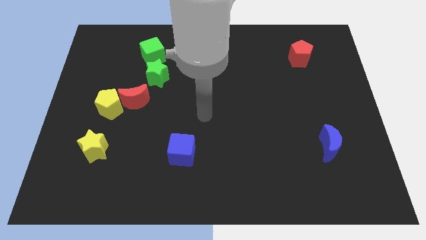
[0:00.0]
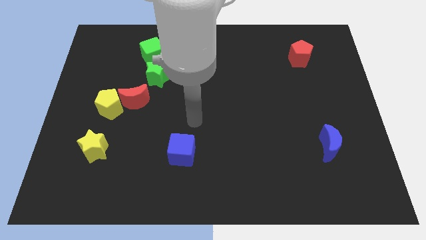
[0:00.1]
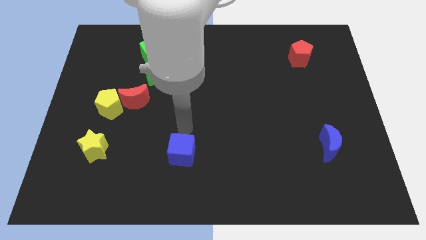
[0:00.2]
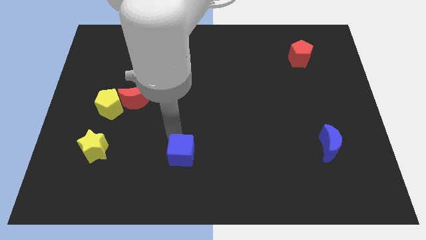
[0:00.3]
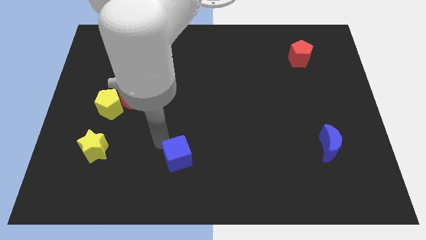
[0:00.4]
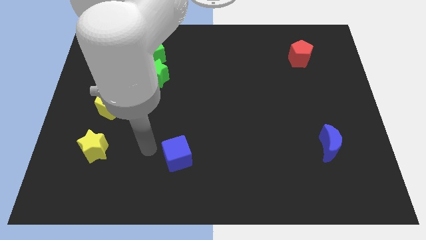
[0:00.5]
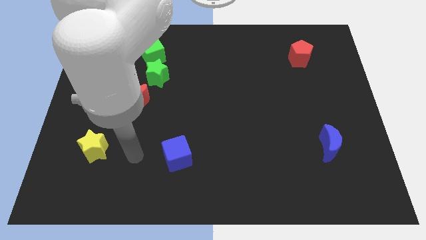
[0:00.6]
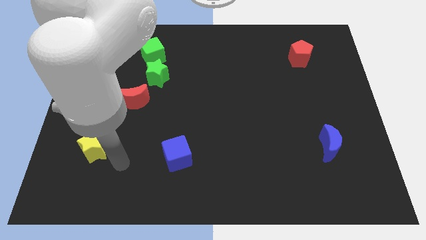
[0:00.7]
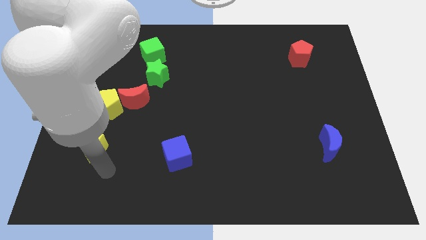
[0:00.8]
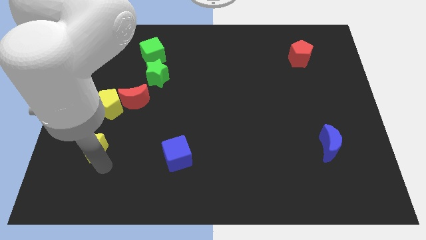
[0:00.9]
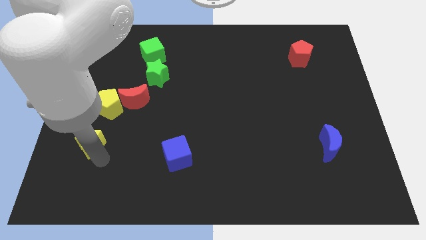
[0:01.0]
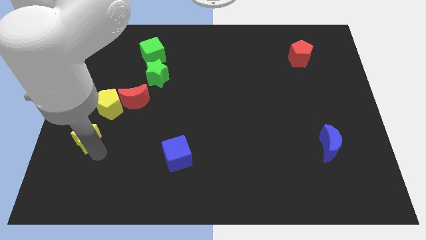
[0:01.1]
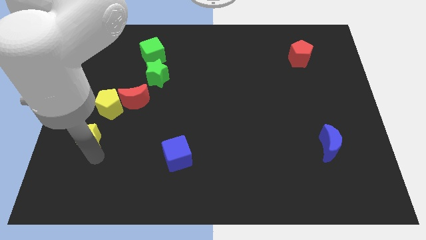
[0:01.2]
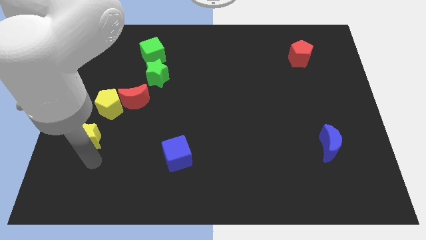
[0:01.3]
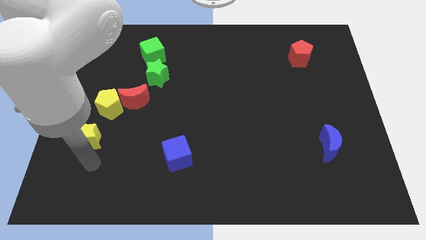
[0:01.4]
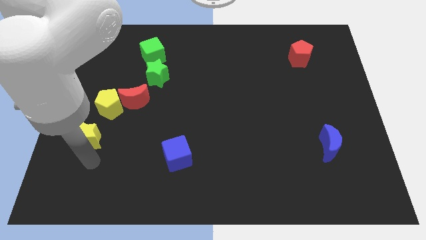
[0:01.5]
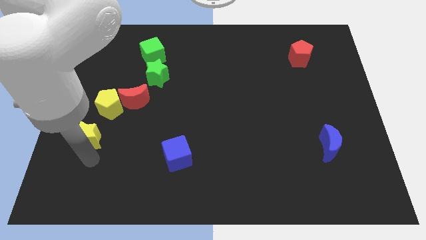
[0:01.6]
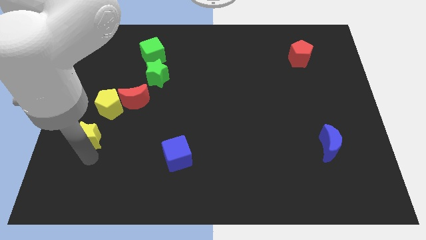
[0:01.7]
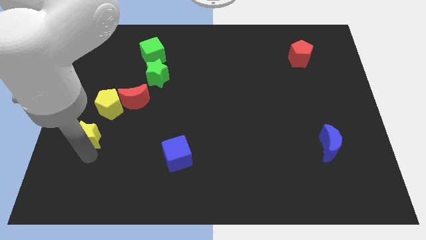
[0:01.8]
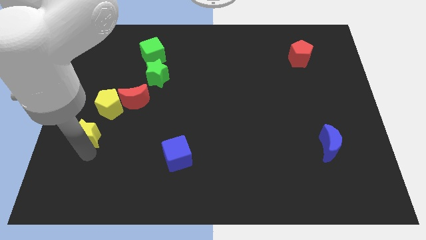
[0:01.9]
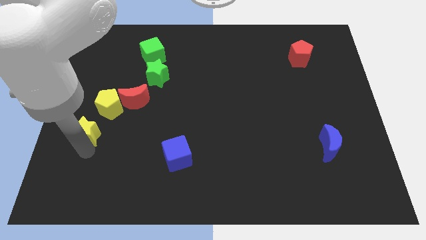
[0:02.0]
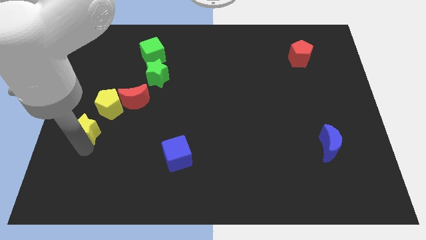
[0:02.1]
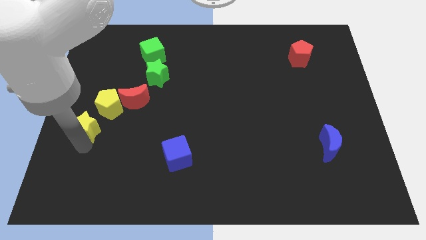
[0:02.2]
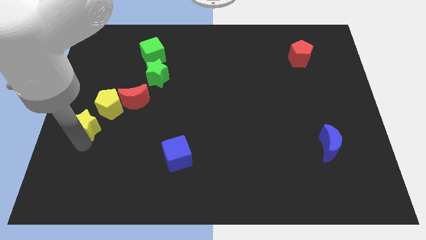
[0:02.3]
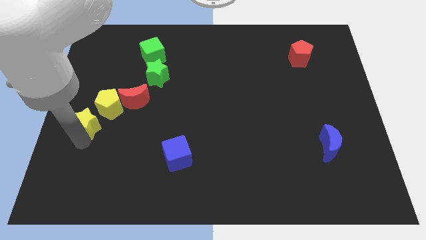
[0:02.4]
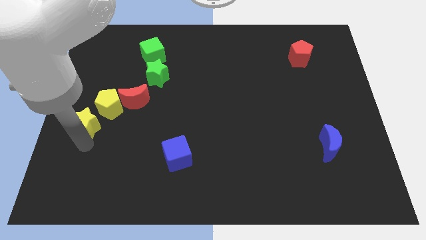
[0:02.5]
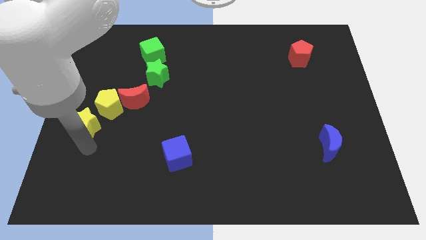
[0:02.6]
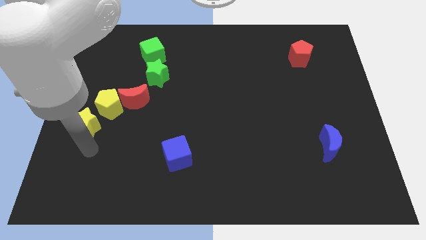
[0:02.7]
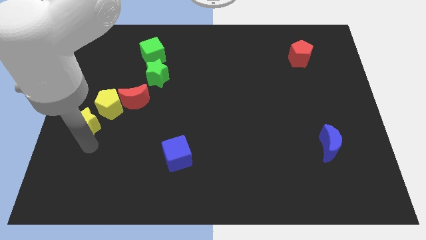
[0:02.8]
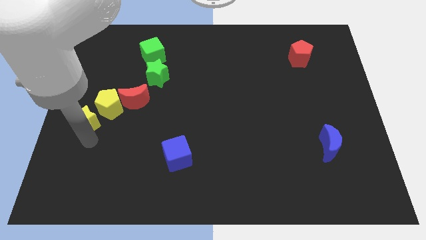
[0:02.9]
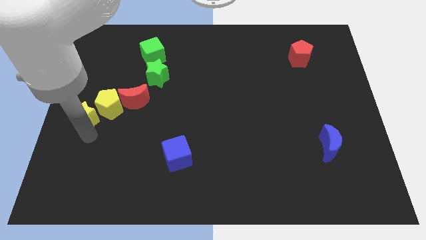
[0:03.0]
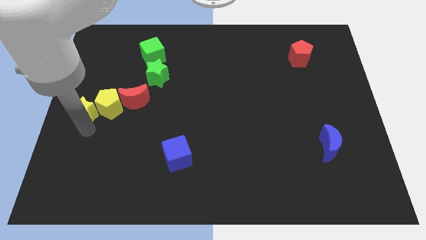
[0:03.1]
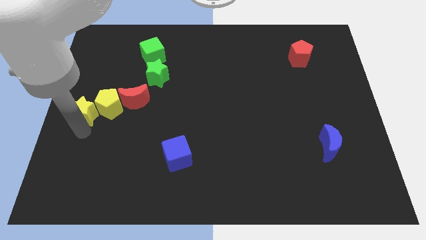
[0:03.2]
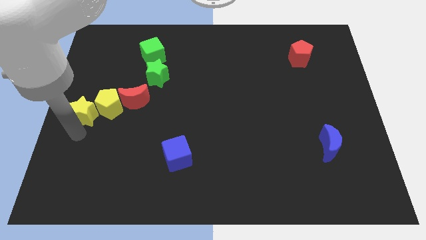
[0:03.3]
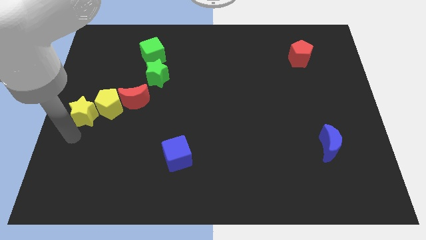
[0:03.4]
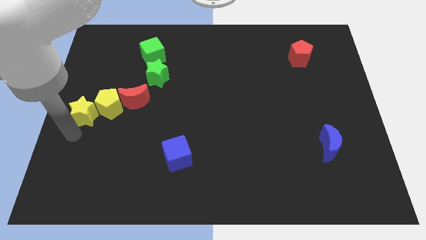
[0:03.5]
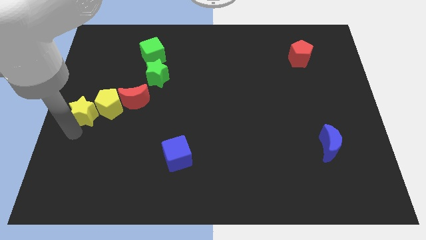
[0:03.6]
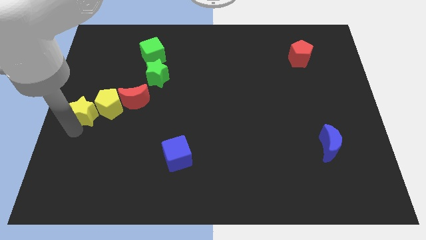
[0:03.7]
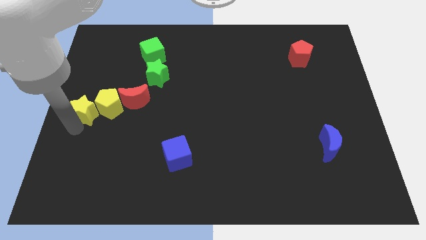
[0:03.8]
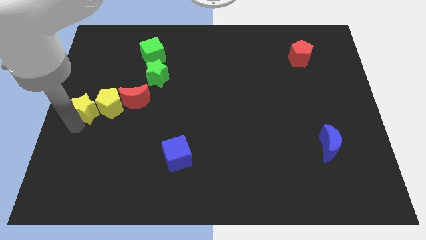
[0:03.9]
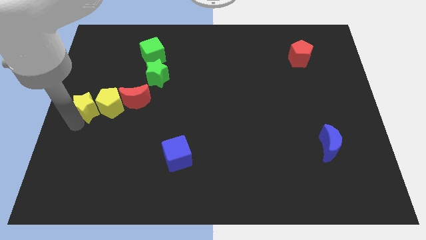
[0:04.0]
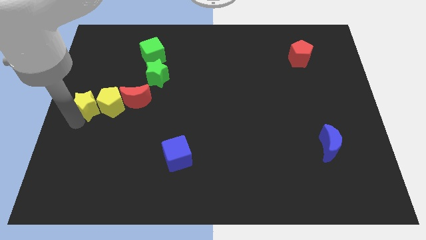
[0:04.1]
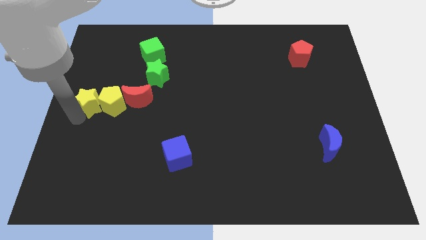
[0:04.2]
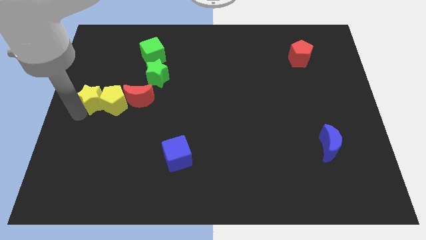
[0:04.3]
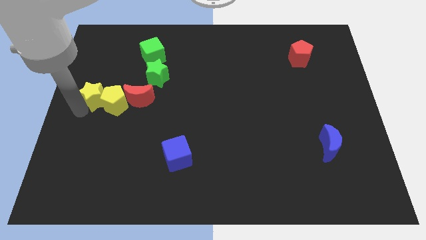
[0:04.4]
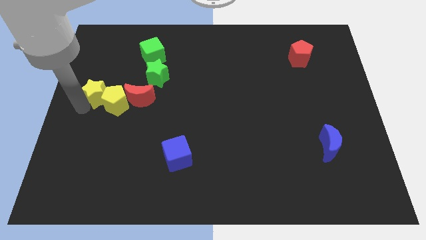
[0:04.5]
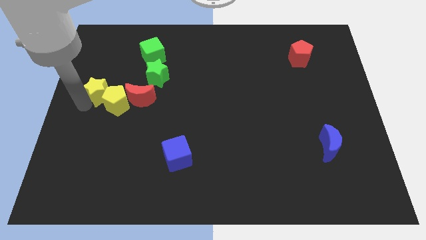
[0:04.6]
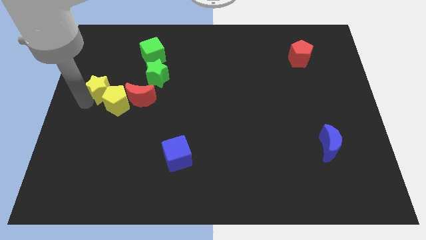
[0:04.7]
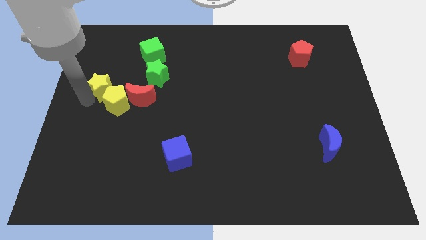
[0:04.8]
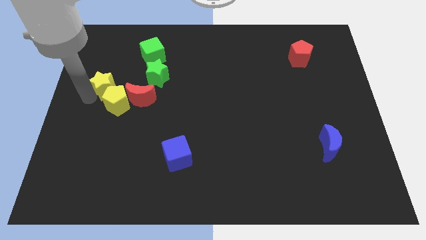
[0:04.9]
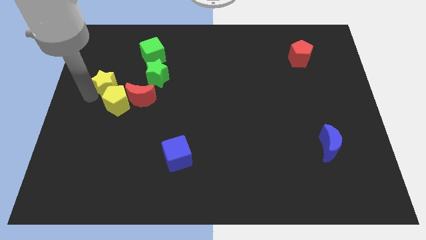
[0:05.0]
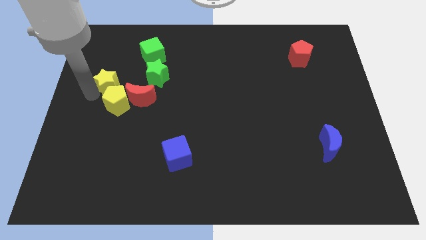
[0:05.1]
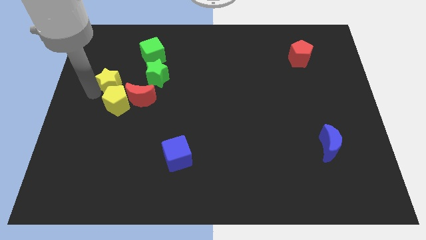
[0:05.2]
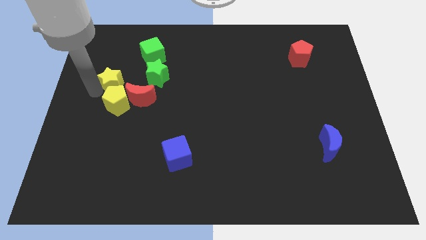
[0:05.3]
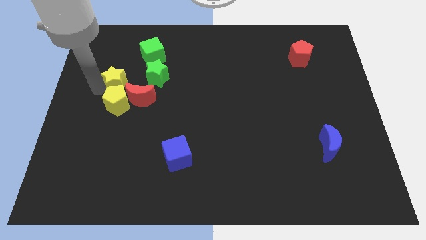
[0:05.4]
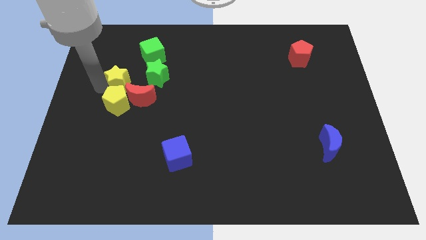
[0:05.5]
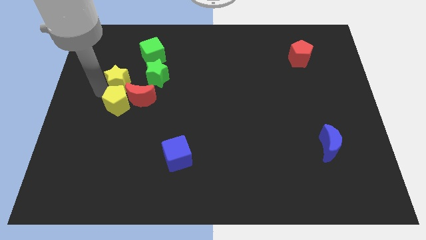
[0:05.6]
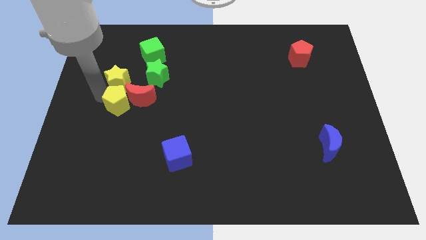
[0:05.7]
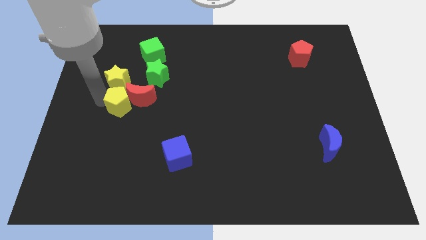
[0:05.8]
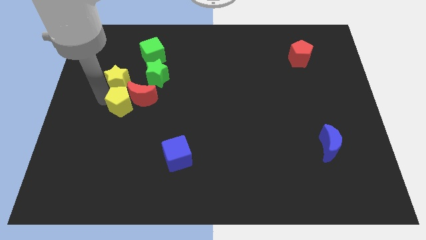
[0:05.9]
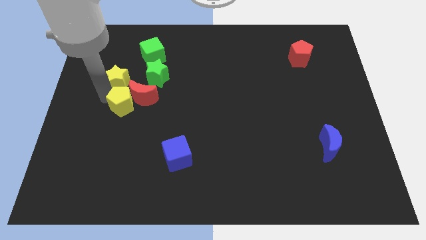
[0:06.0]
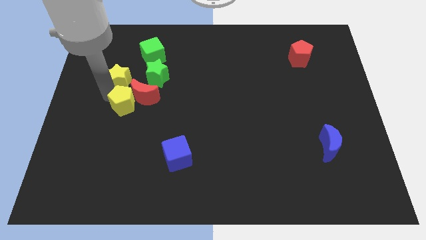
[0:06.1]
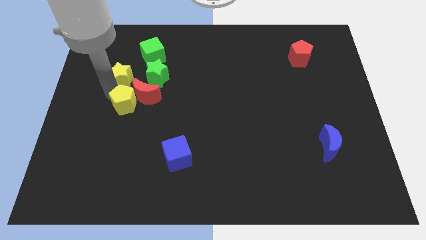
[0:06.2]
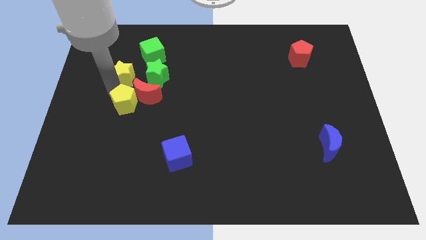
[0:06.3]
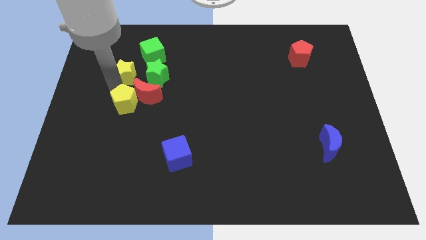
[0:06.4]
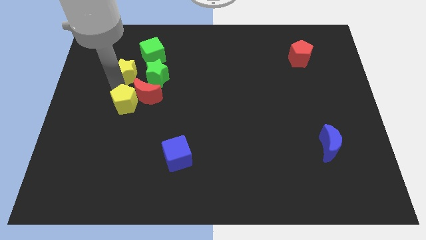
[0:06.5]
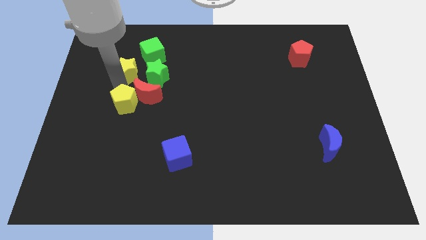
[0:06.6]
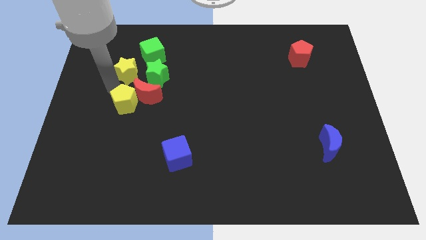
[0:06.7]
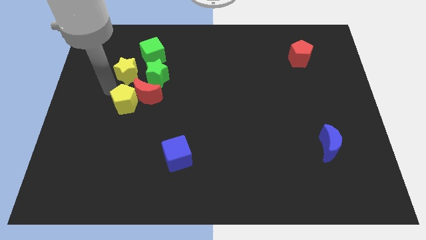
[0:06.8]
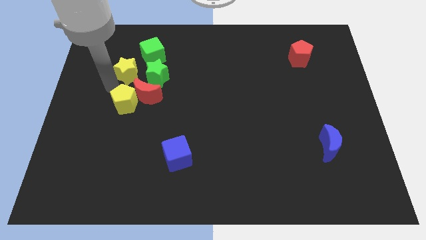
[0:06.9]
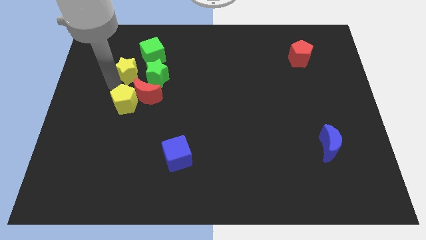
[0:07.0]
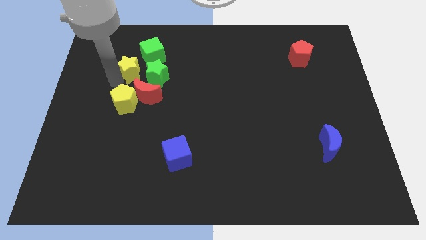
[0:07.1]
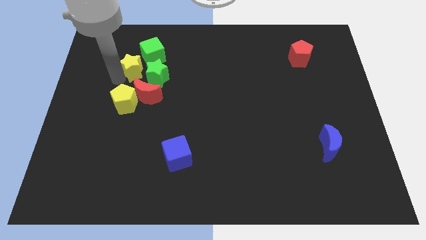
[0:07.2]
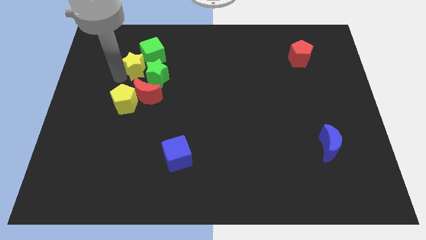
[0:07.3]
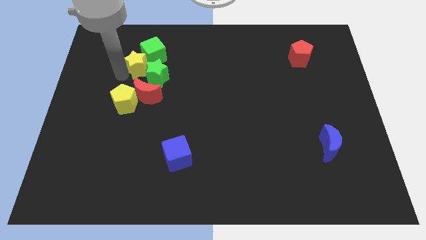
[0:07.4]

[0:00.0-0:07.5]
push the yellow star next to the green cube
